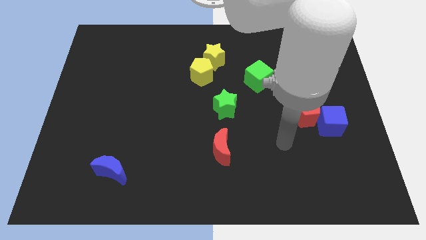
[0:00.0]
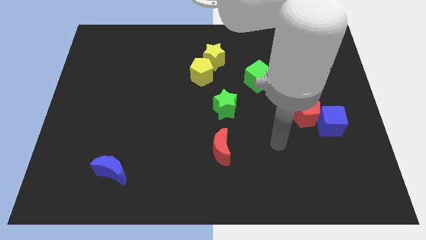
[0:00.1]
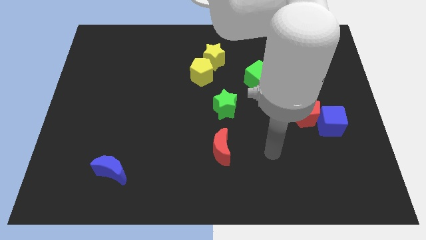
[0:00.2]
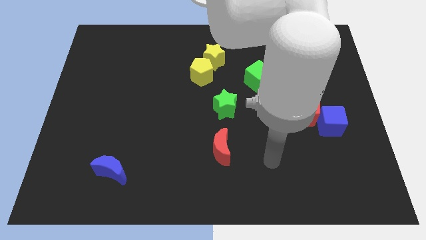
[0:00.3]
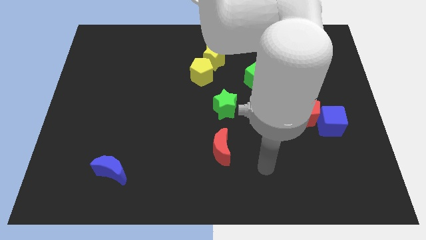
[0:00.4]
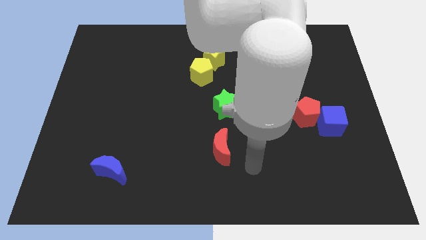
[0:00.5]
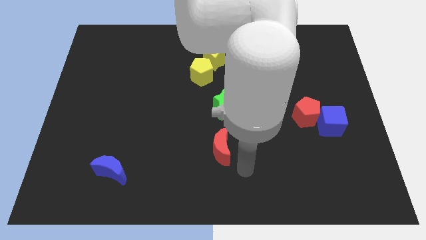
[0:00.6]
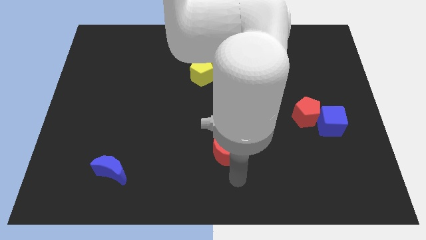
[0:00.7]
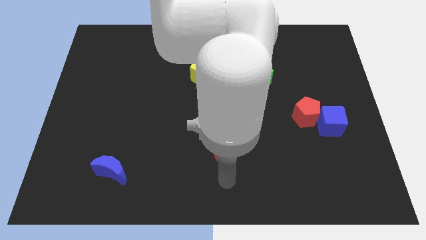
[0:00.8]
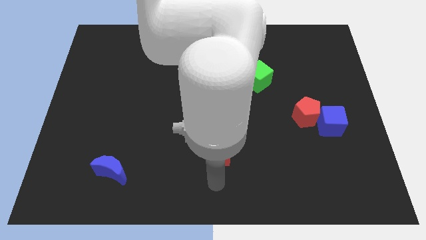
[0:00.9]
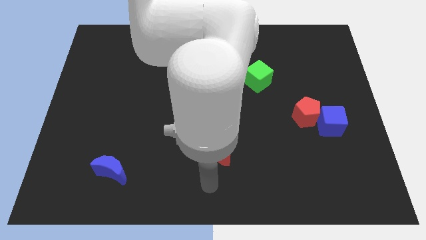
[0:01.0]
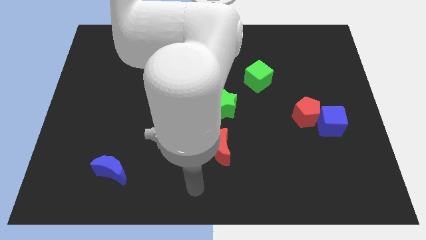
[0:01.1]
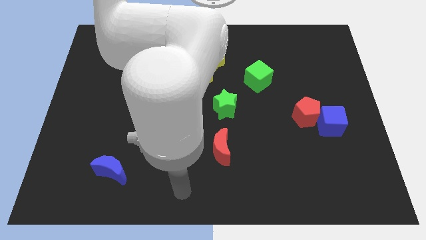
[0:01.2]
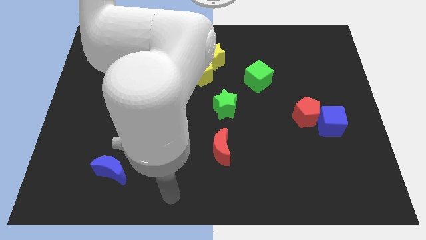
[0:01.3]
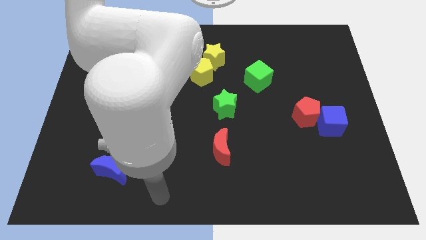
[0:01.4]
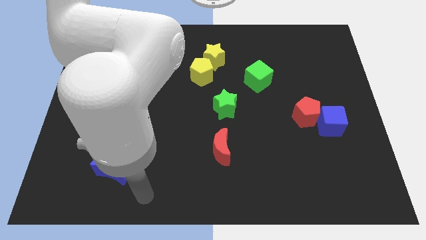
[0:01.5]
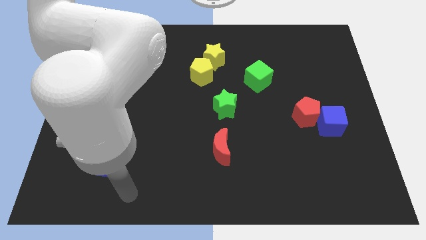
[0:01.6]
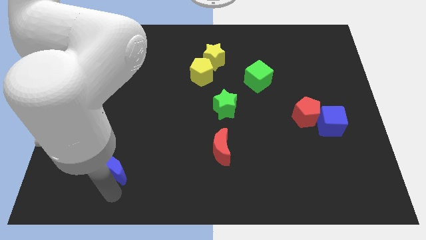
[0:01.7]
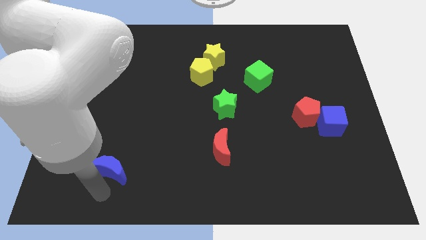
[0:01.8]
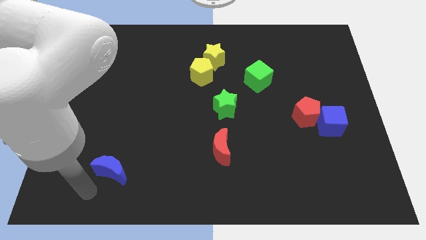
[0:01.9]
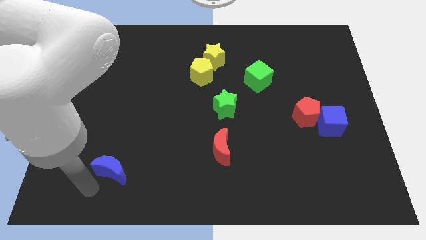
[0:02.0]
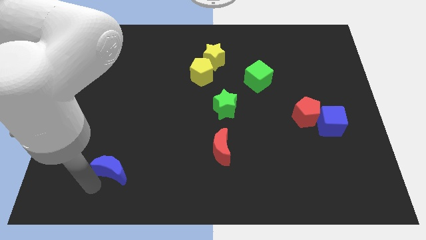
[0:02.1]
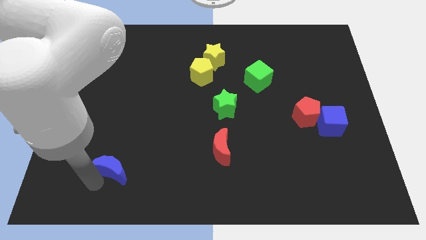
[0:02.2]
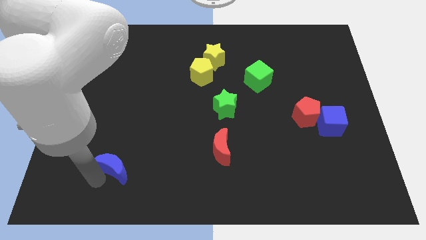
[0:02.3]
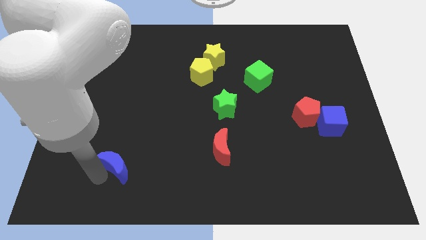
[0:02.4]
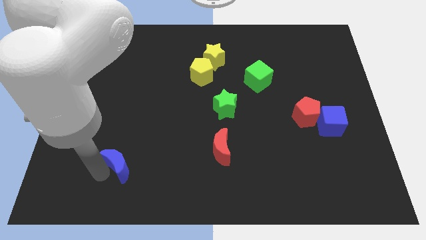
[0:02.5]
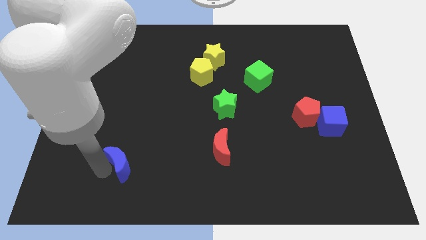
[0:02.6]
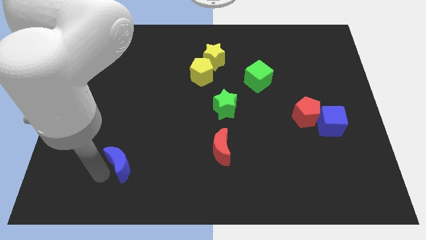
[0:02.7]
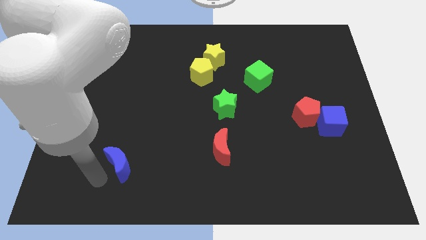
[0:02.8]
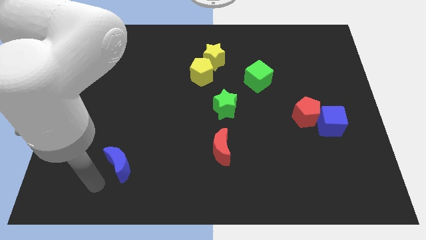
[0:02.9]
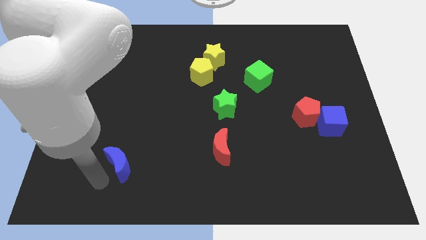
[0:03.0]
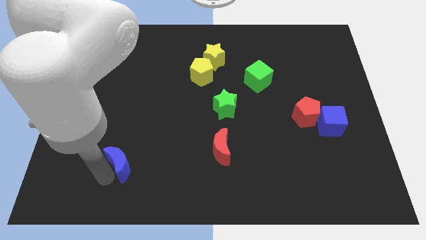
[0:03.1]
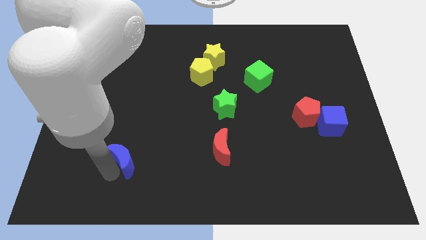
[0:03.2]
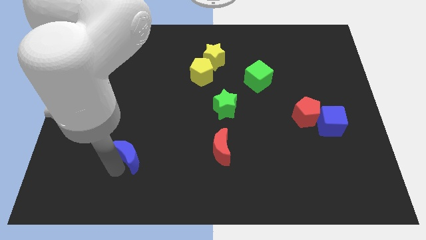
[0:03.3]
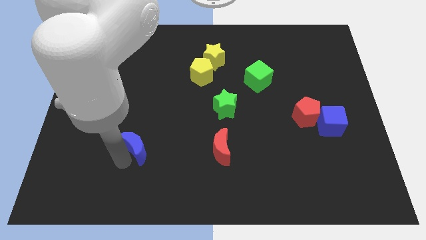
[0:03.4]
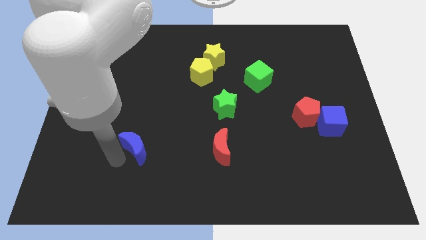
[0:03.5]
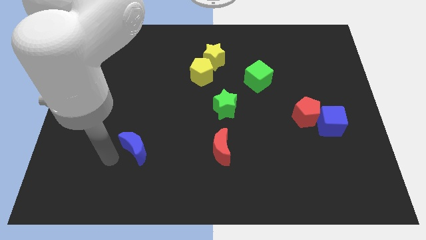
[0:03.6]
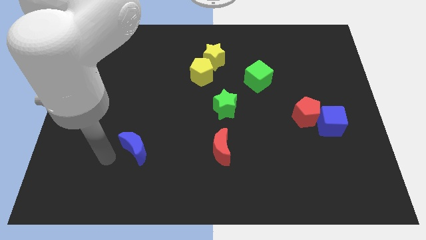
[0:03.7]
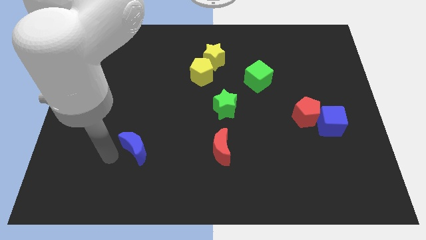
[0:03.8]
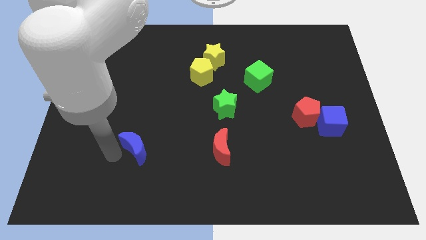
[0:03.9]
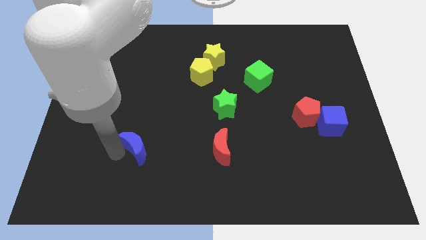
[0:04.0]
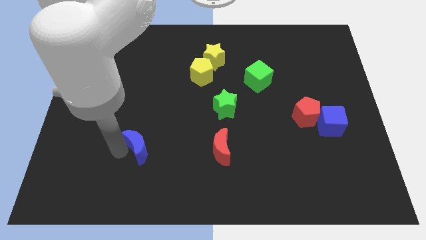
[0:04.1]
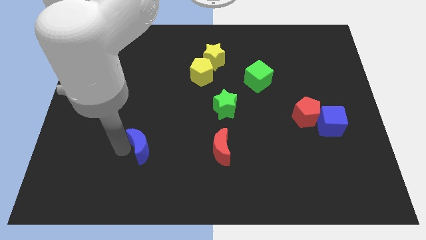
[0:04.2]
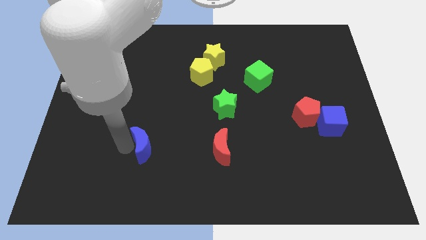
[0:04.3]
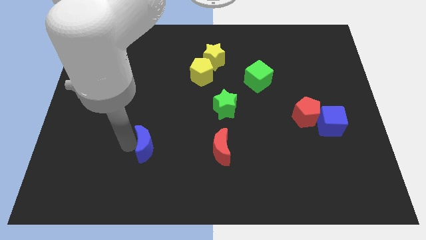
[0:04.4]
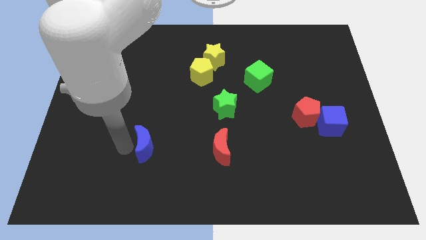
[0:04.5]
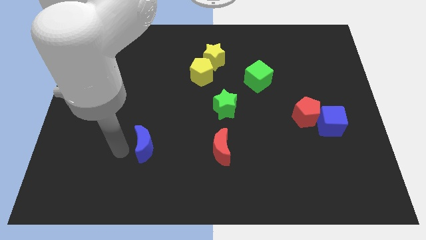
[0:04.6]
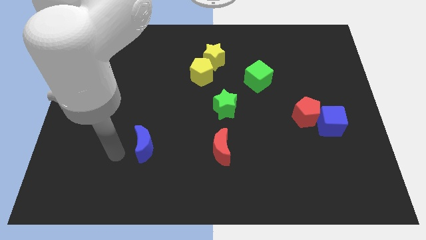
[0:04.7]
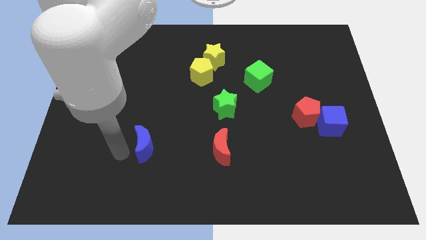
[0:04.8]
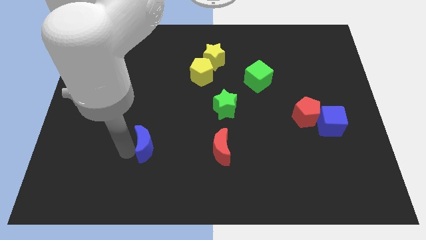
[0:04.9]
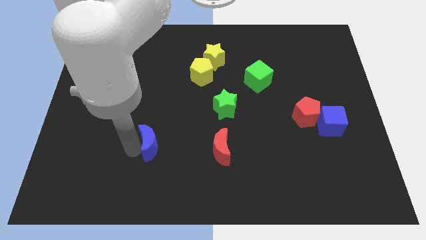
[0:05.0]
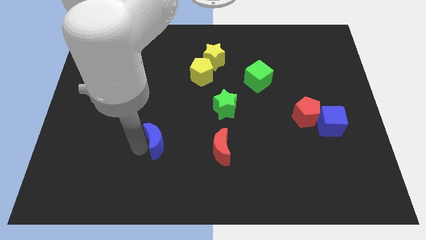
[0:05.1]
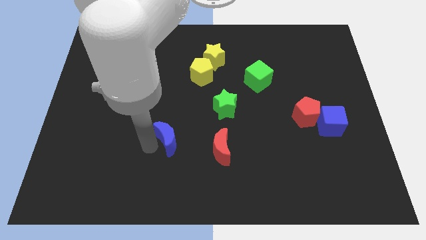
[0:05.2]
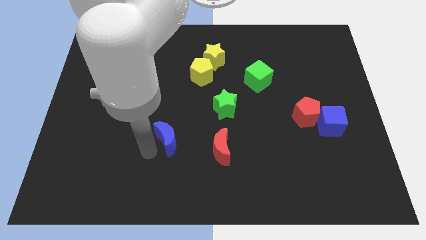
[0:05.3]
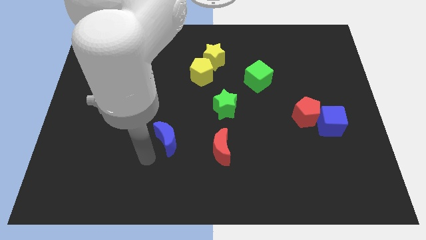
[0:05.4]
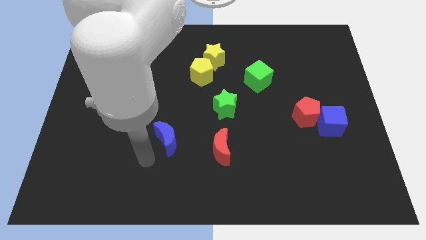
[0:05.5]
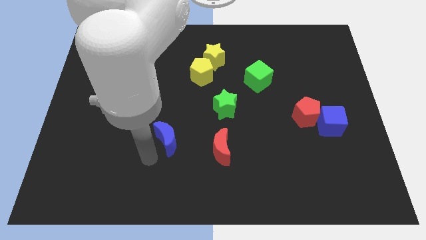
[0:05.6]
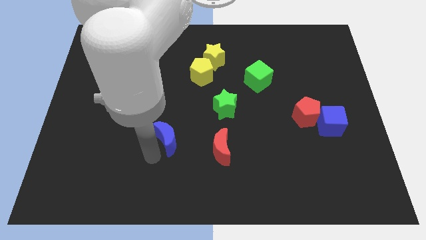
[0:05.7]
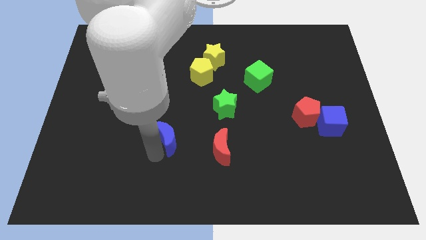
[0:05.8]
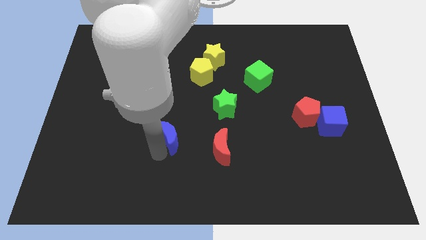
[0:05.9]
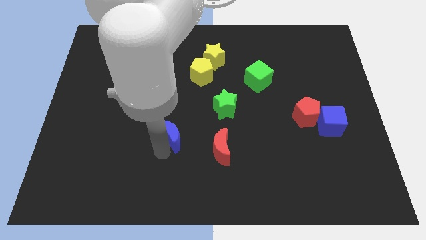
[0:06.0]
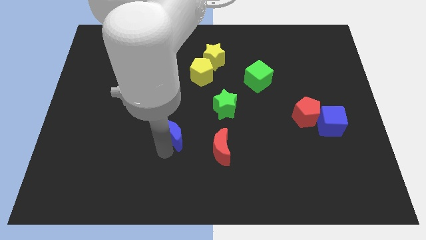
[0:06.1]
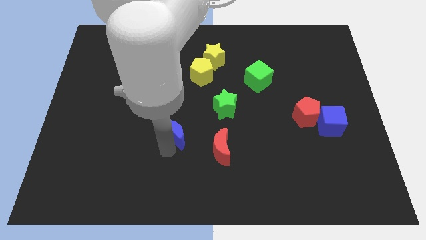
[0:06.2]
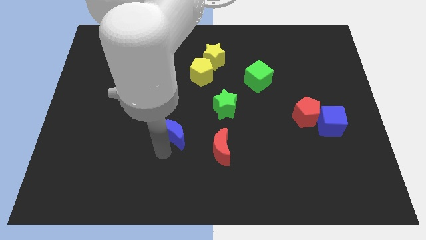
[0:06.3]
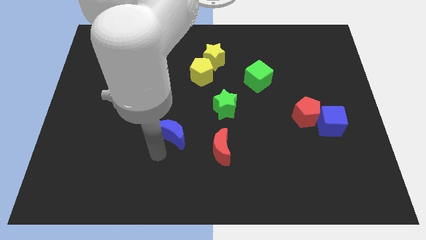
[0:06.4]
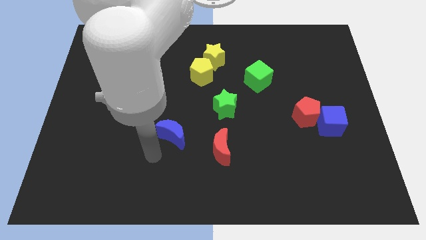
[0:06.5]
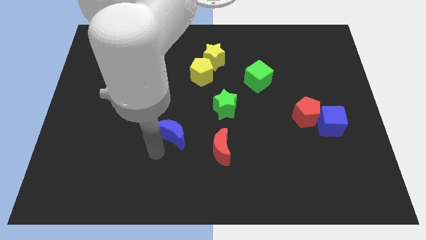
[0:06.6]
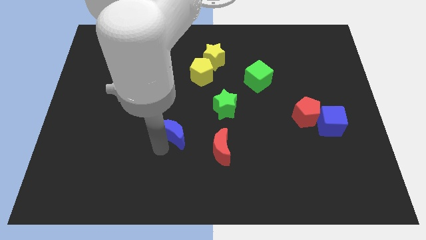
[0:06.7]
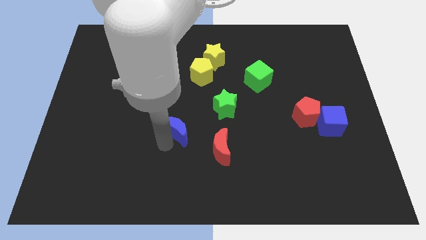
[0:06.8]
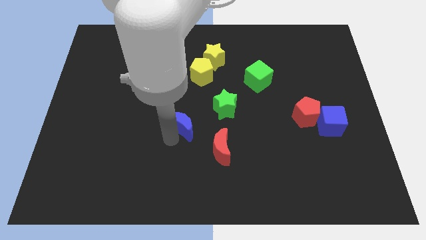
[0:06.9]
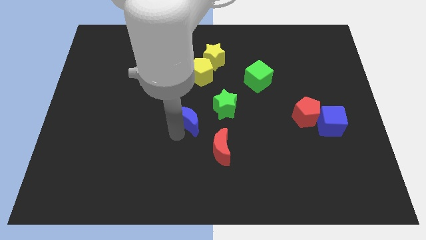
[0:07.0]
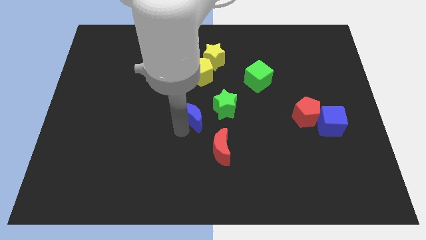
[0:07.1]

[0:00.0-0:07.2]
move the blue moon up and then right

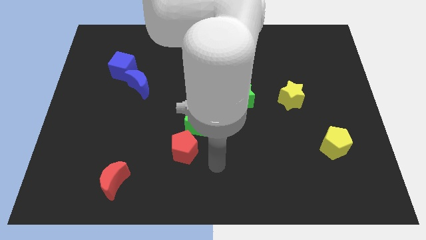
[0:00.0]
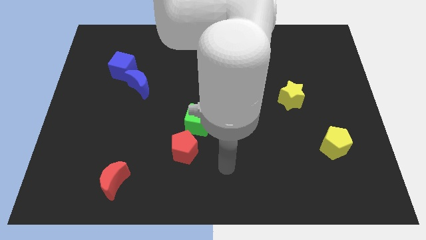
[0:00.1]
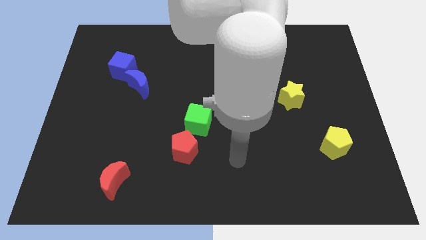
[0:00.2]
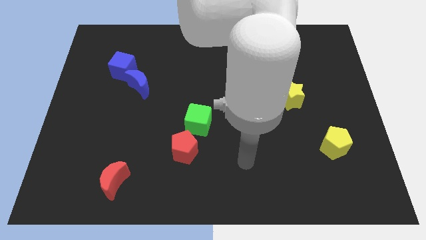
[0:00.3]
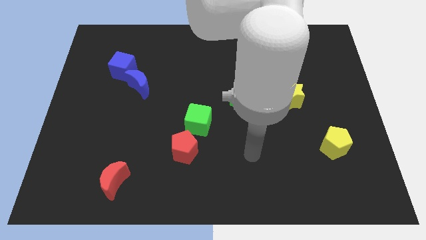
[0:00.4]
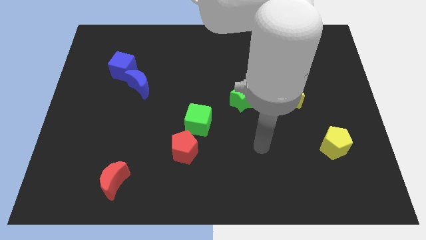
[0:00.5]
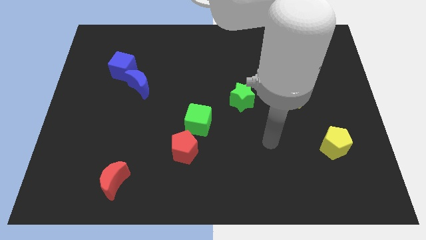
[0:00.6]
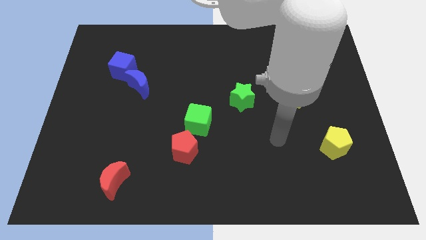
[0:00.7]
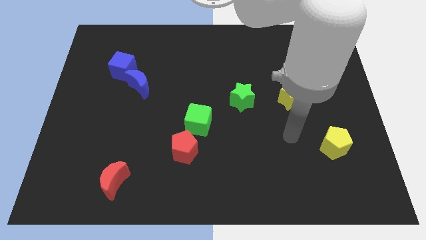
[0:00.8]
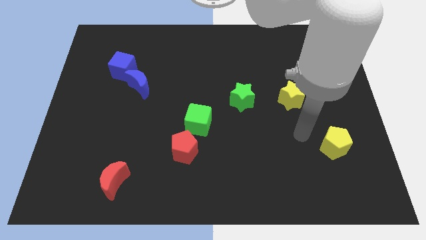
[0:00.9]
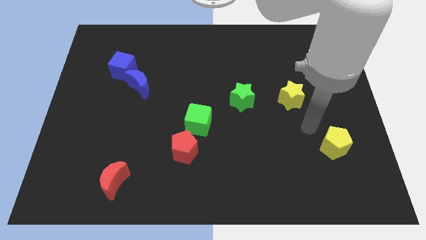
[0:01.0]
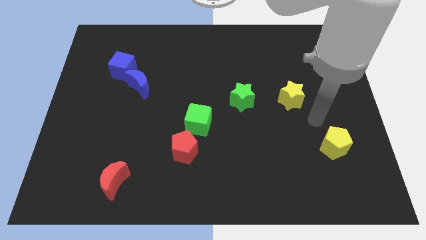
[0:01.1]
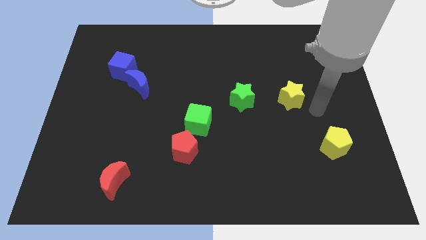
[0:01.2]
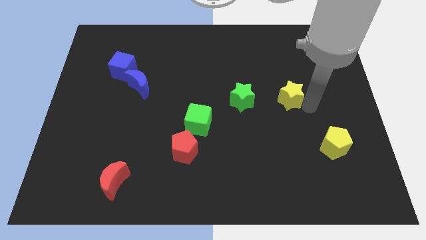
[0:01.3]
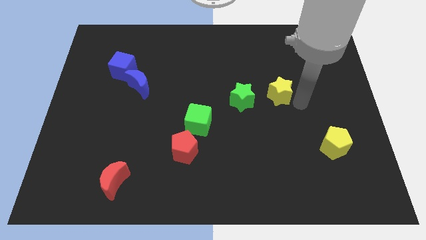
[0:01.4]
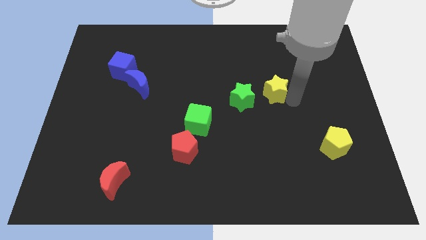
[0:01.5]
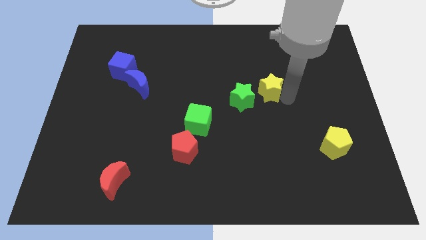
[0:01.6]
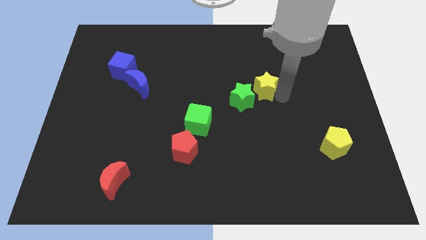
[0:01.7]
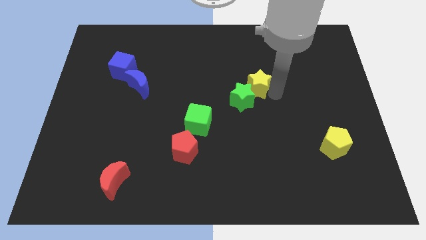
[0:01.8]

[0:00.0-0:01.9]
slide the yellow star a little to the left
